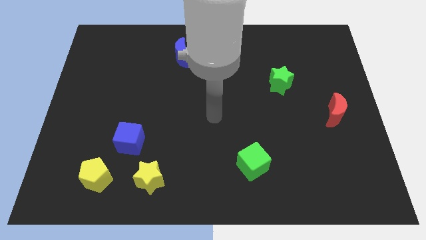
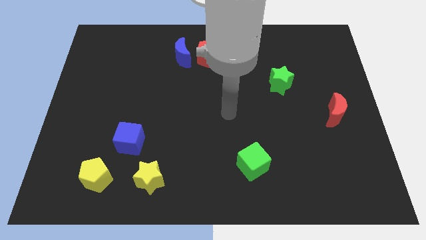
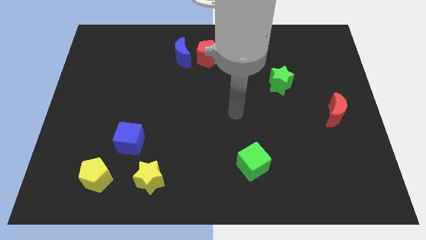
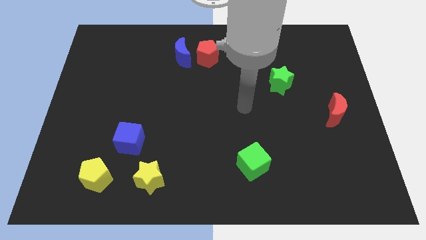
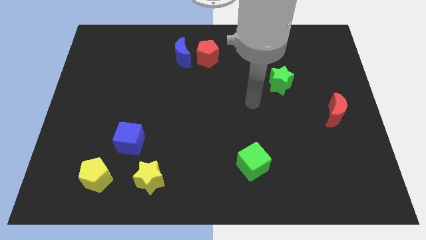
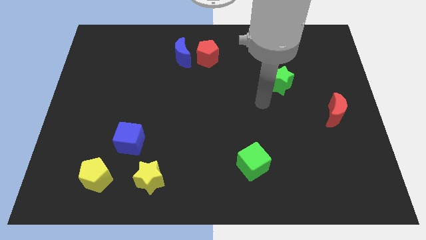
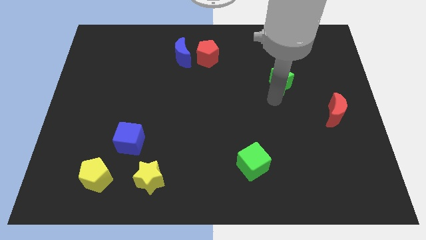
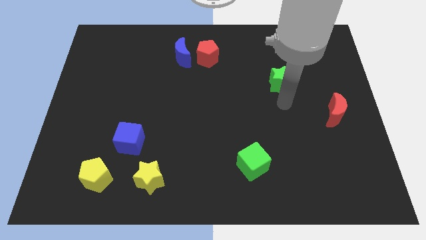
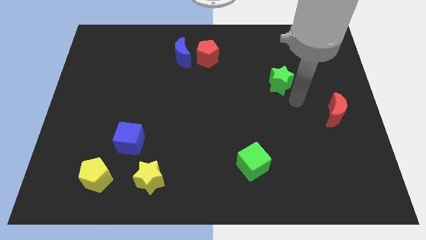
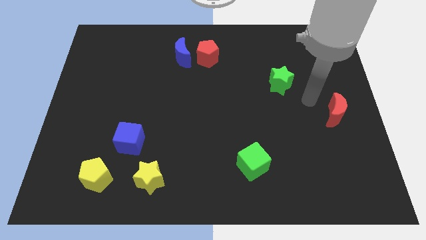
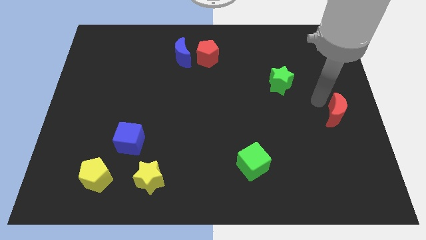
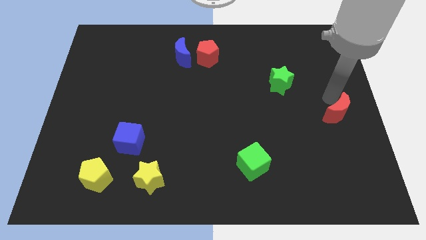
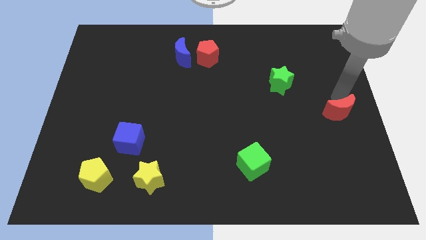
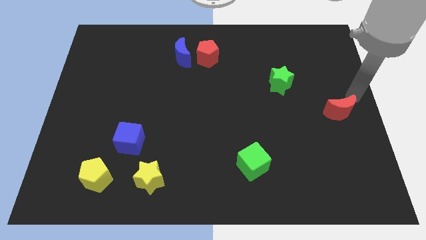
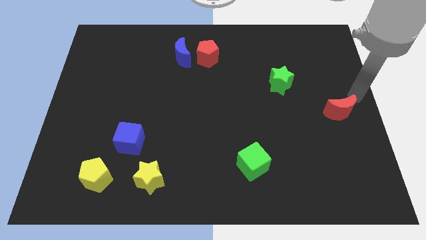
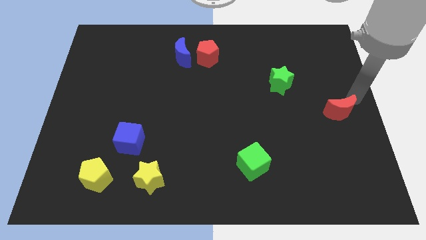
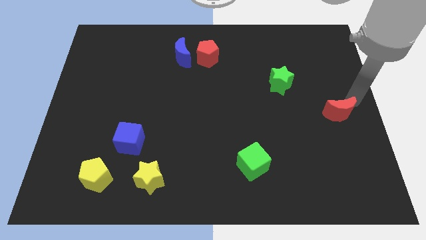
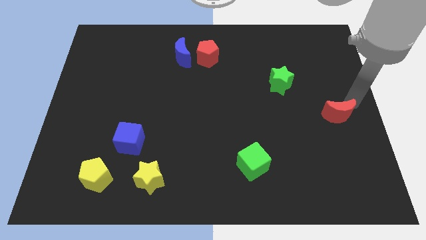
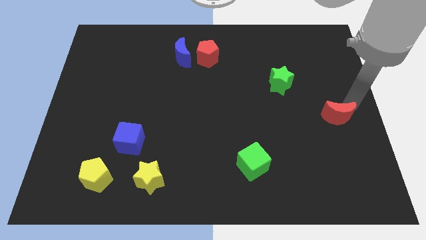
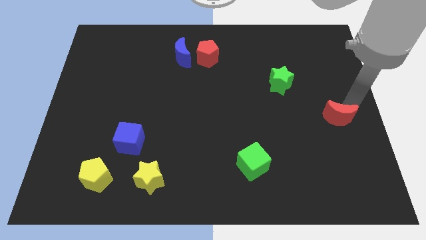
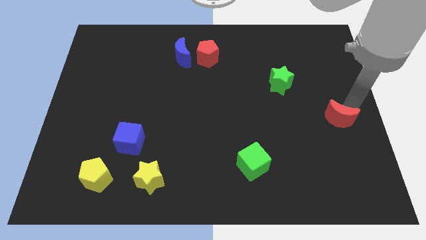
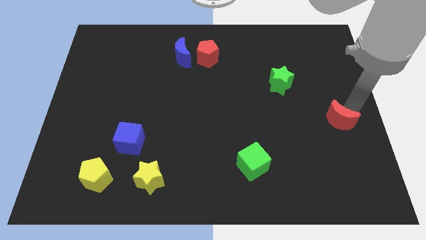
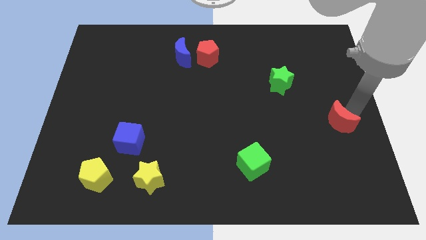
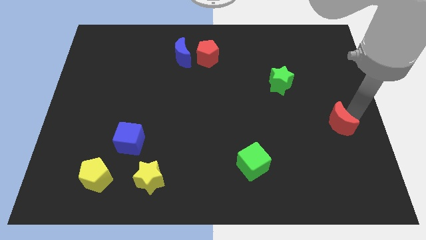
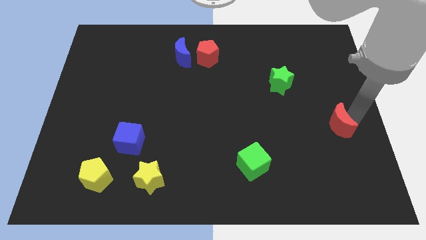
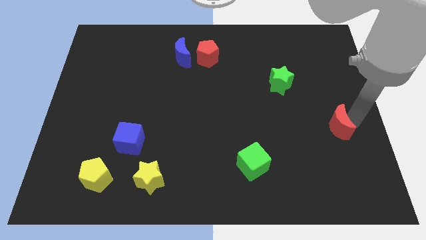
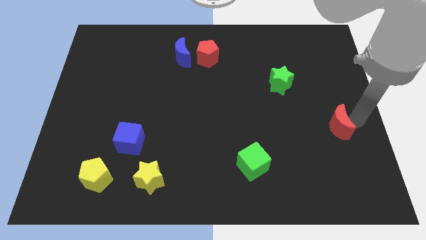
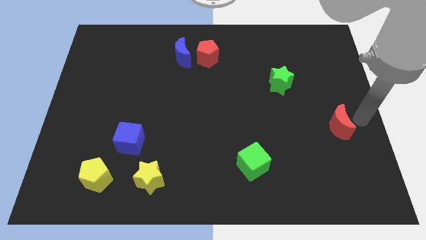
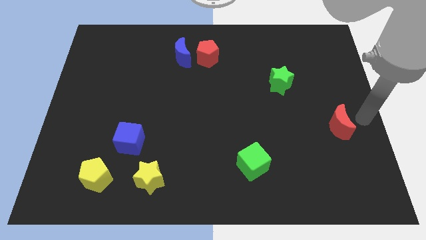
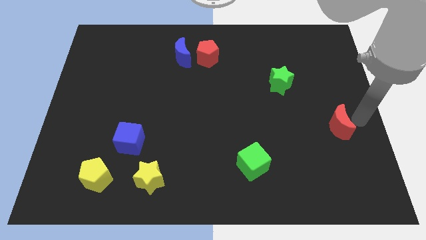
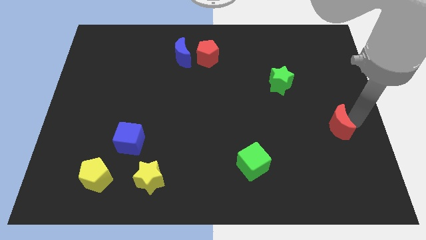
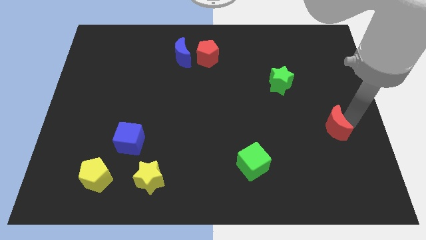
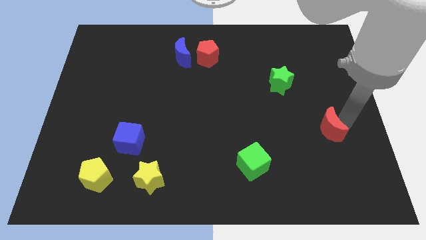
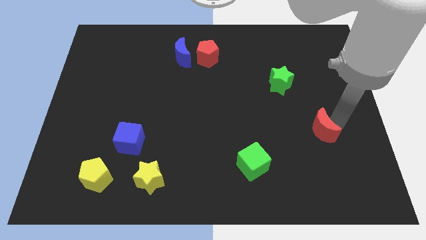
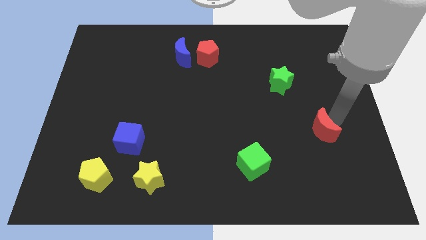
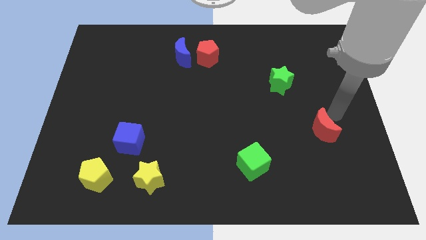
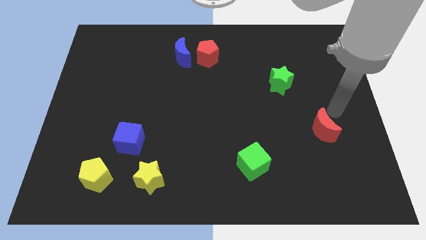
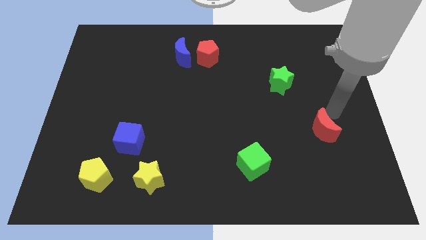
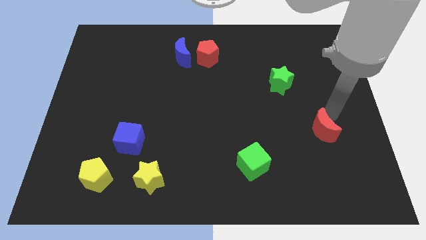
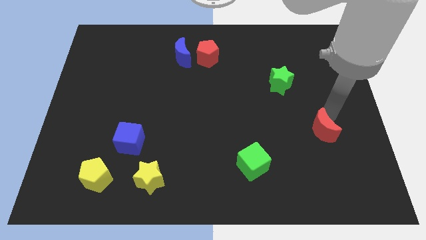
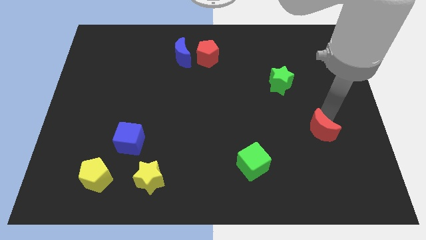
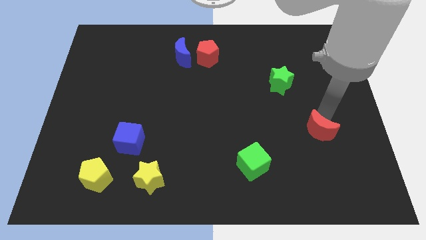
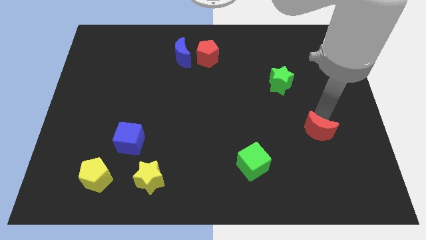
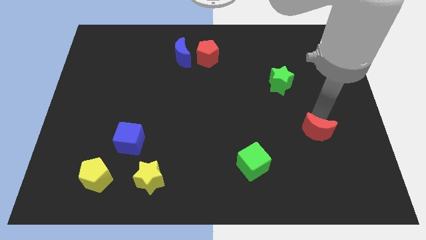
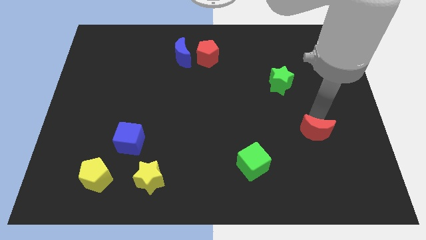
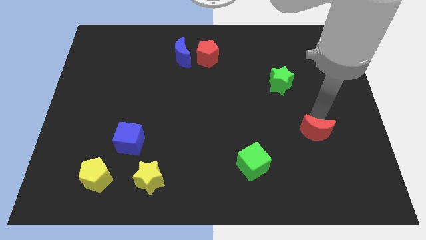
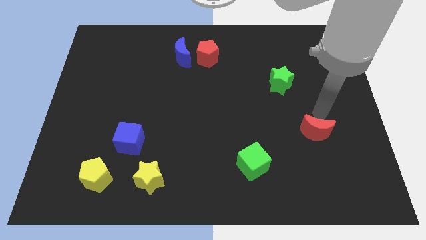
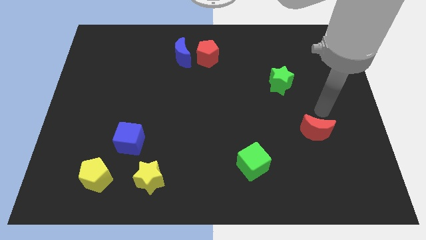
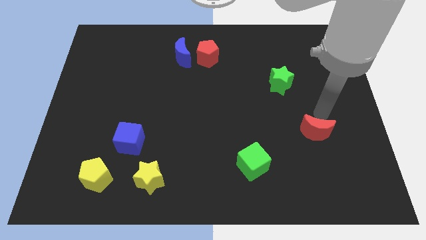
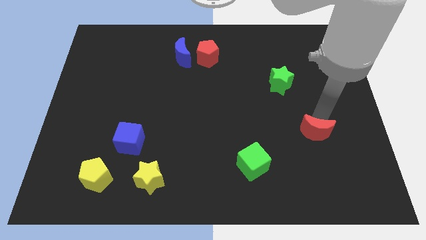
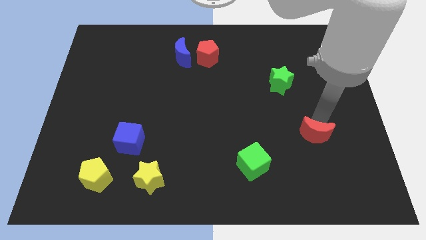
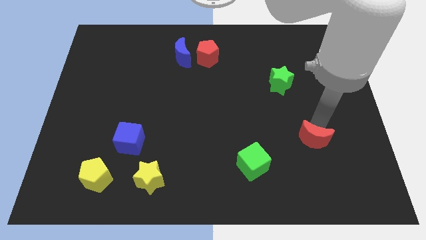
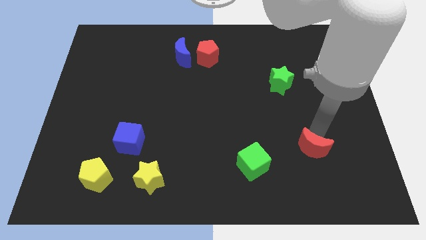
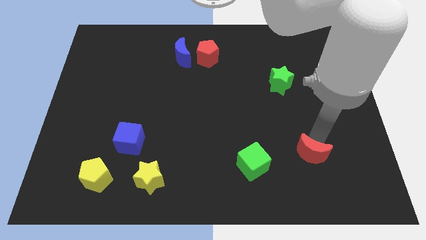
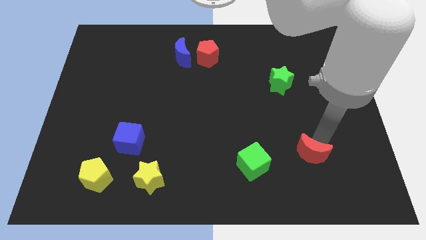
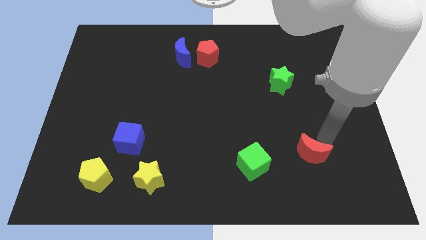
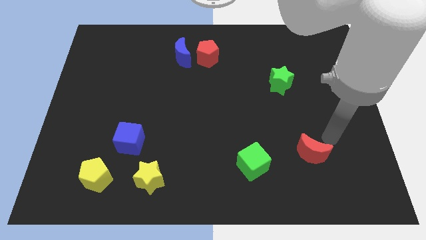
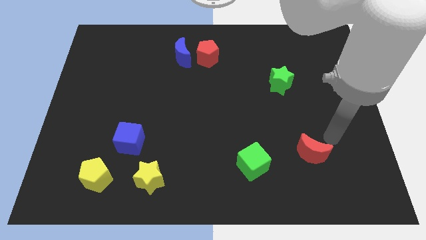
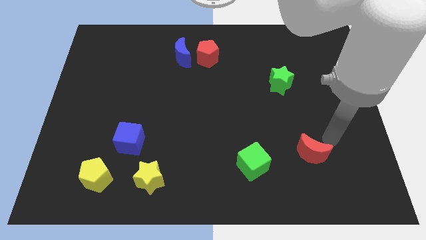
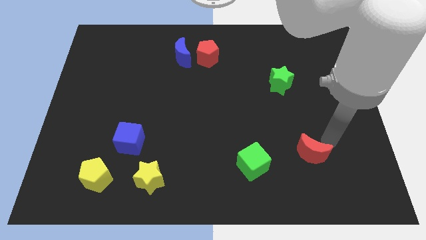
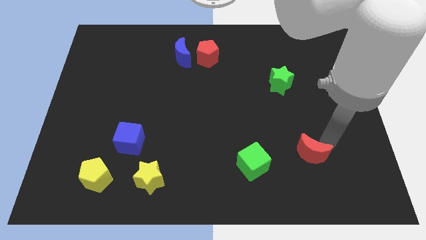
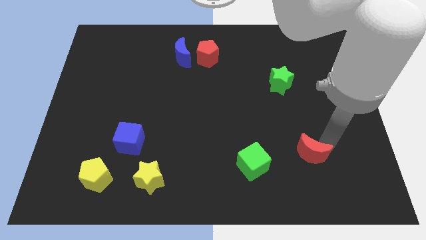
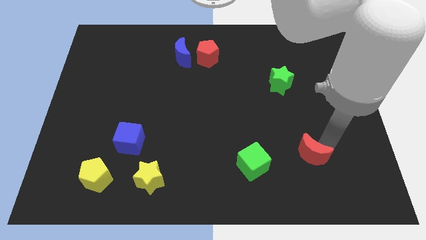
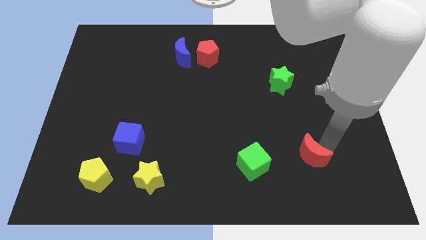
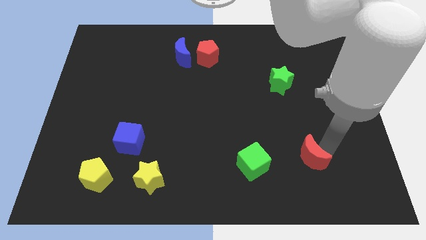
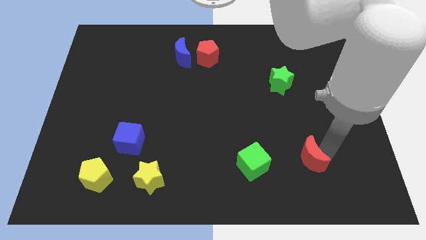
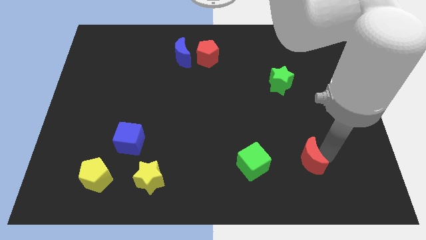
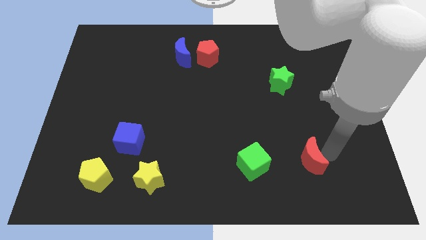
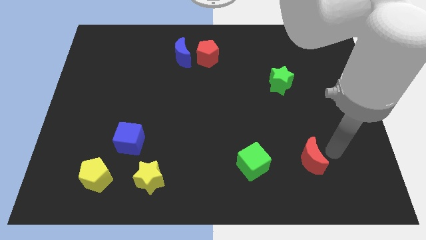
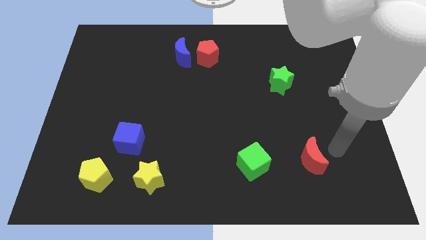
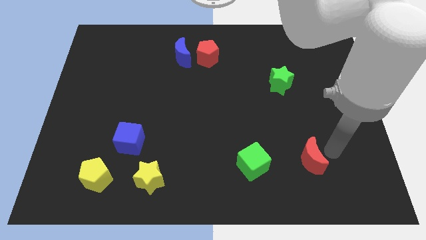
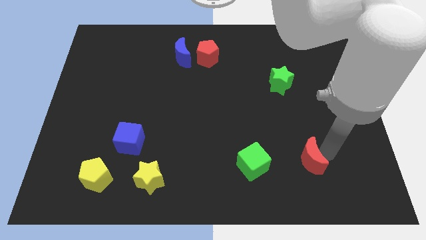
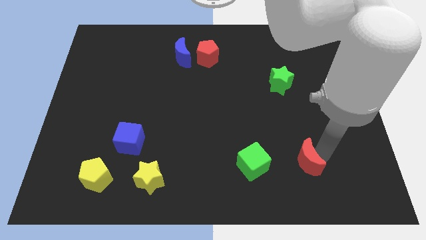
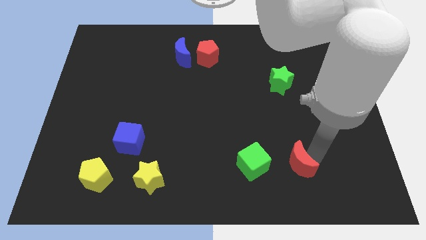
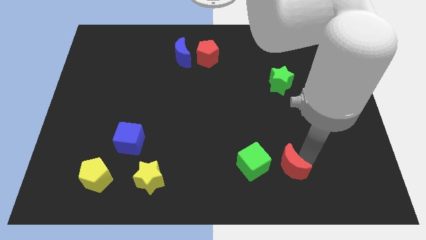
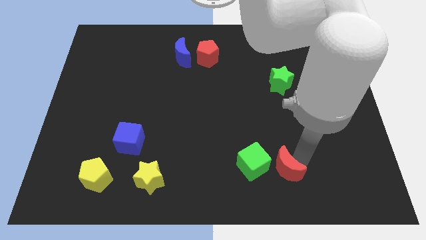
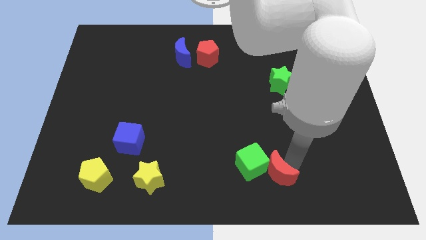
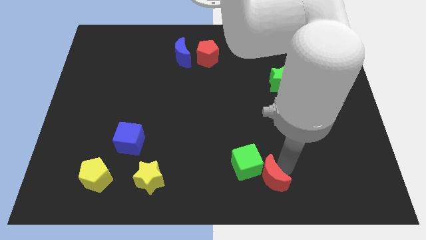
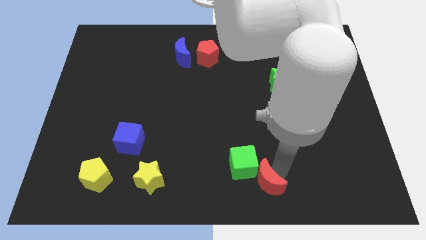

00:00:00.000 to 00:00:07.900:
slide the red moon to the bottom side
